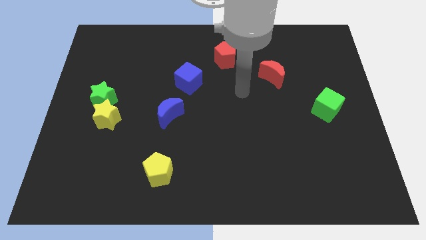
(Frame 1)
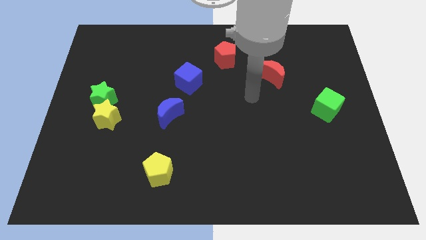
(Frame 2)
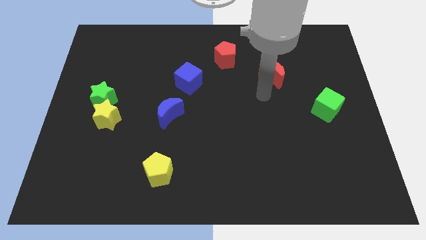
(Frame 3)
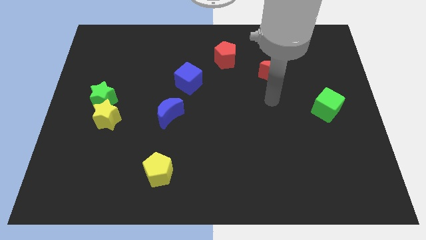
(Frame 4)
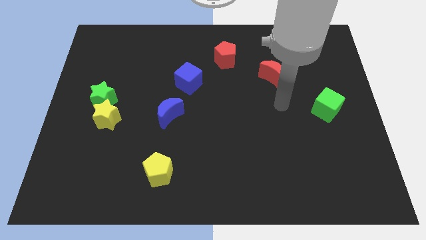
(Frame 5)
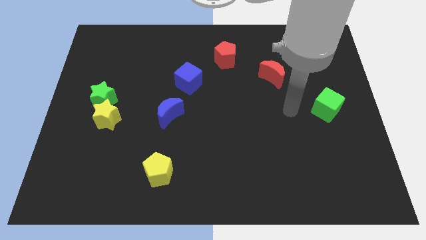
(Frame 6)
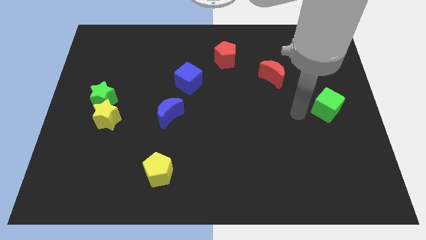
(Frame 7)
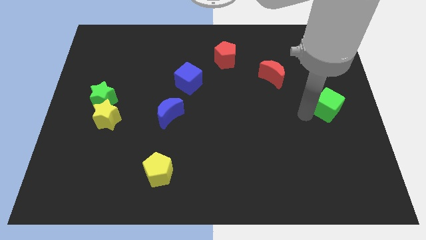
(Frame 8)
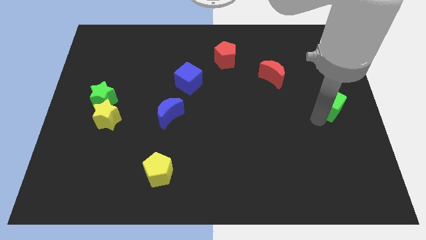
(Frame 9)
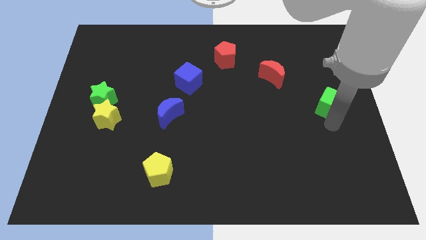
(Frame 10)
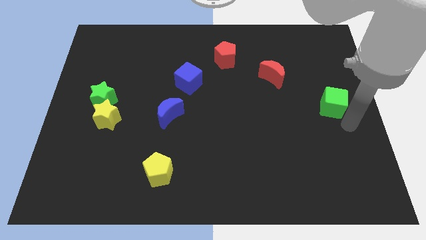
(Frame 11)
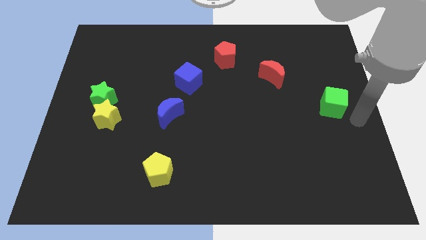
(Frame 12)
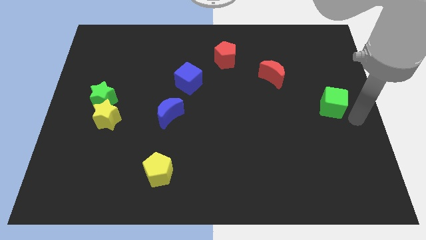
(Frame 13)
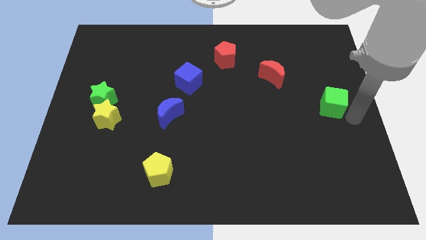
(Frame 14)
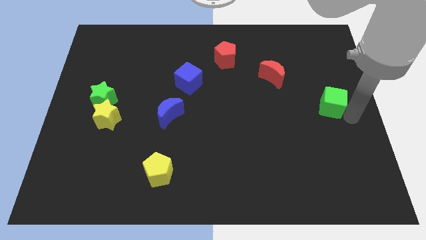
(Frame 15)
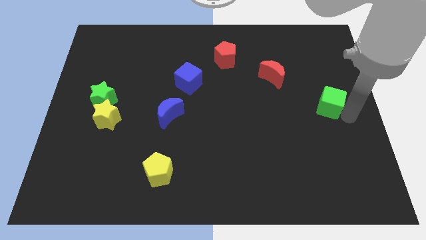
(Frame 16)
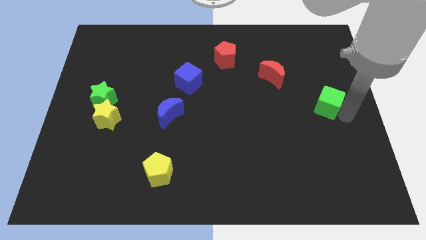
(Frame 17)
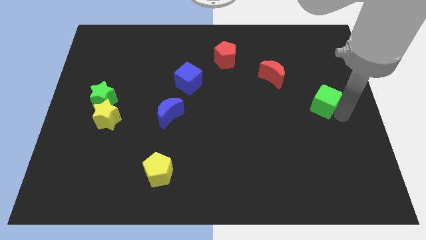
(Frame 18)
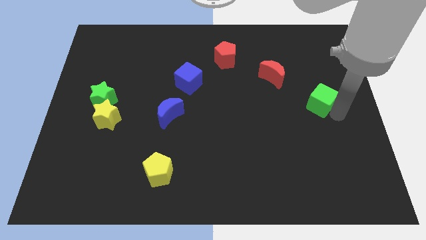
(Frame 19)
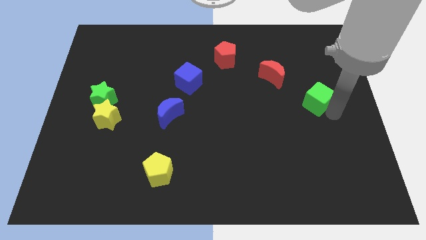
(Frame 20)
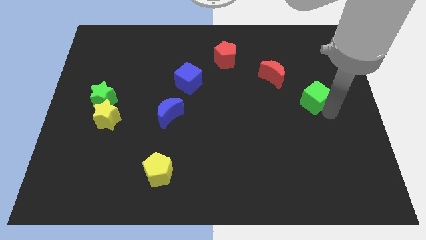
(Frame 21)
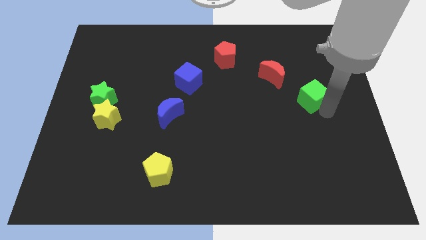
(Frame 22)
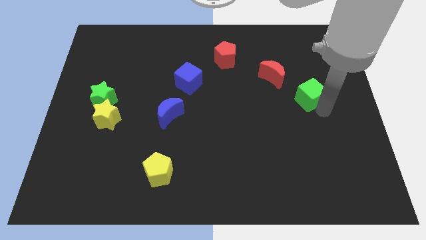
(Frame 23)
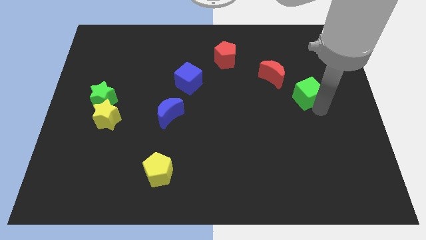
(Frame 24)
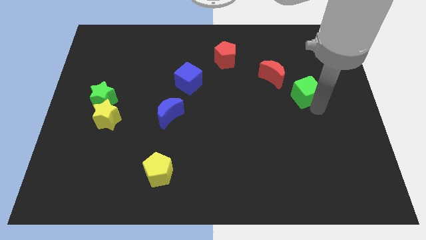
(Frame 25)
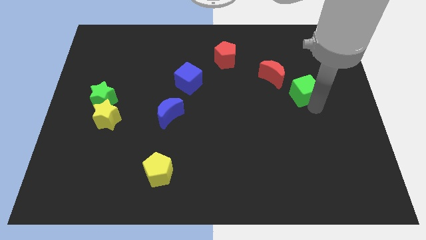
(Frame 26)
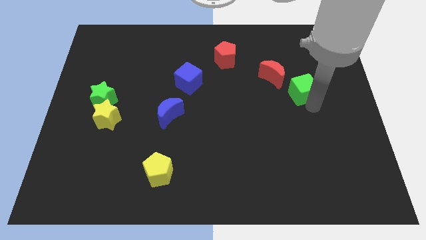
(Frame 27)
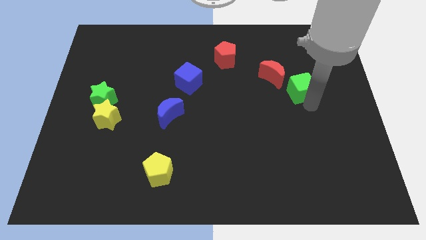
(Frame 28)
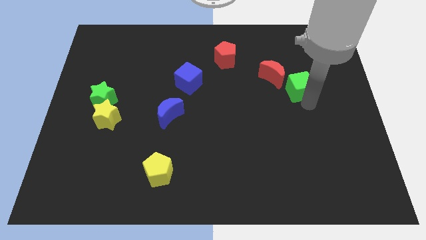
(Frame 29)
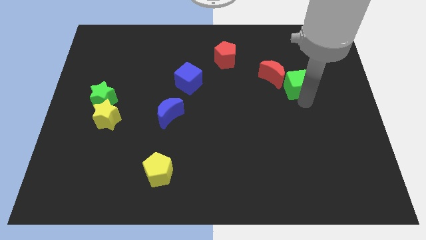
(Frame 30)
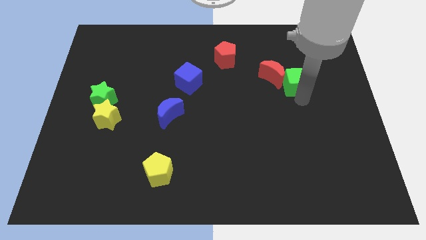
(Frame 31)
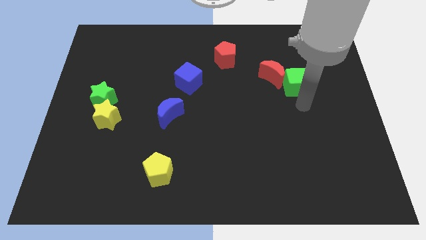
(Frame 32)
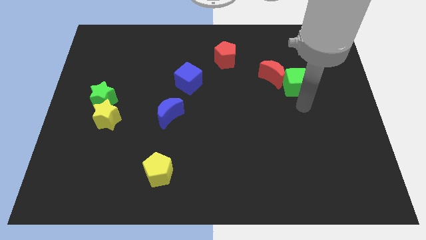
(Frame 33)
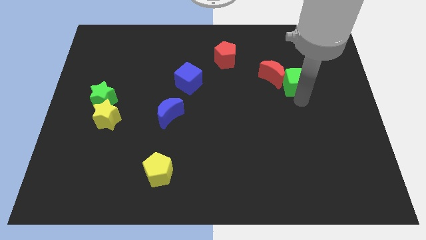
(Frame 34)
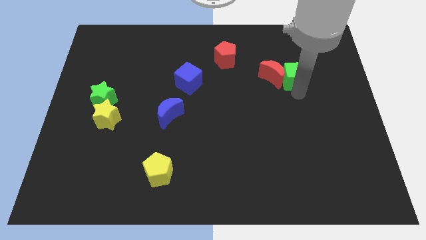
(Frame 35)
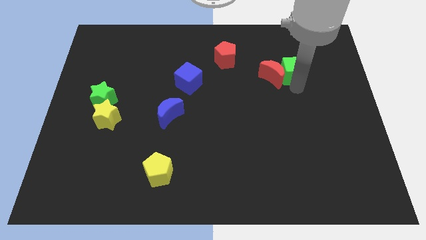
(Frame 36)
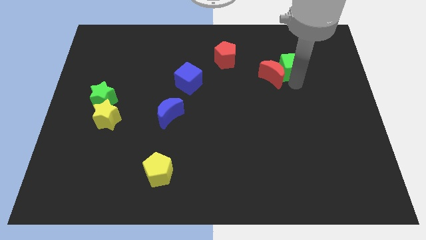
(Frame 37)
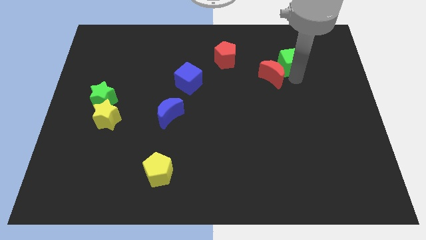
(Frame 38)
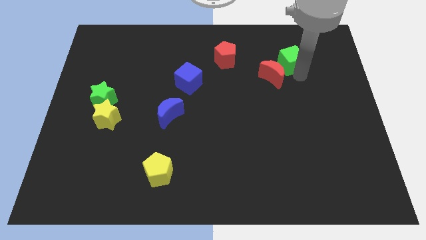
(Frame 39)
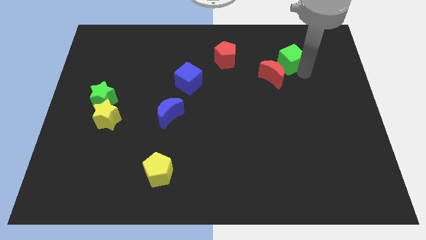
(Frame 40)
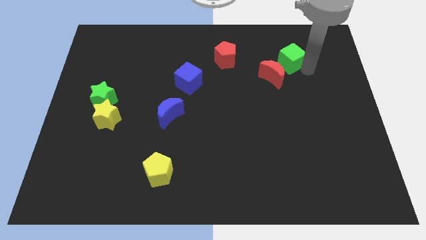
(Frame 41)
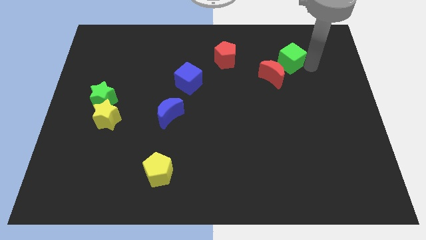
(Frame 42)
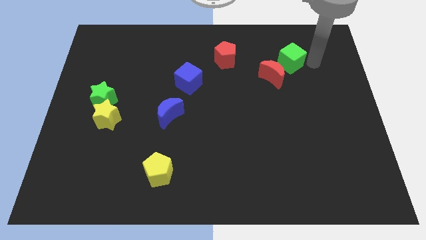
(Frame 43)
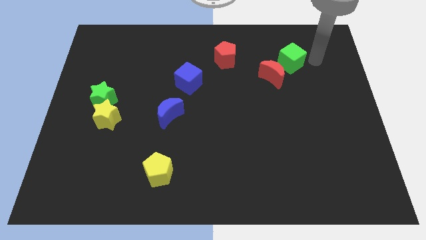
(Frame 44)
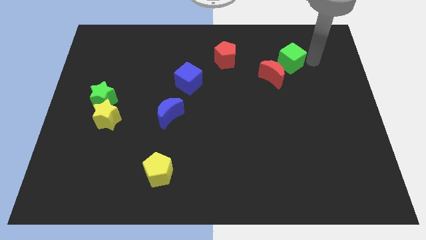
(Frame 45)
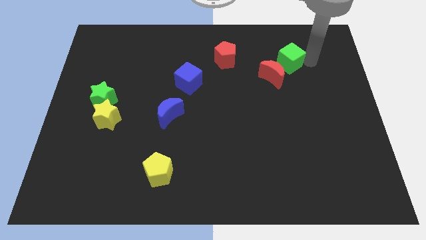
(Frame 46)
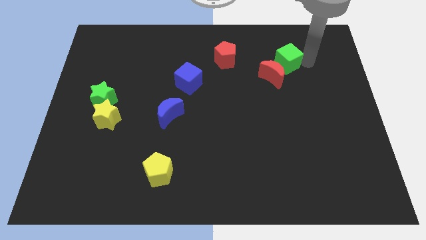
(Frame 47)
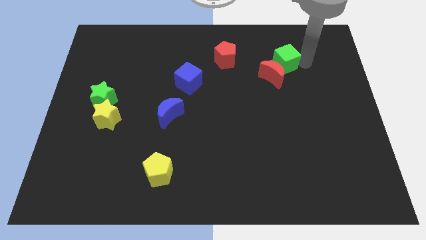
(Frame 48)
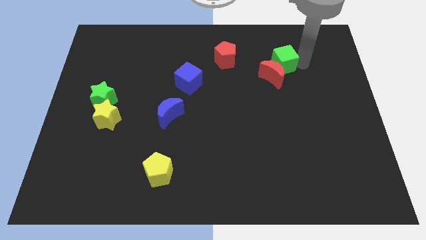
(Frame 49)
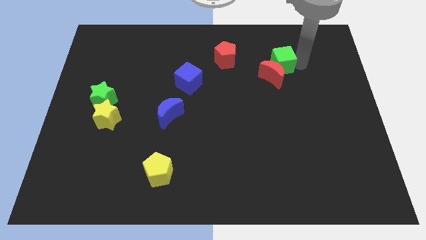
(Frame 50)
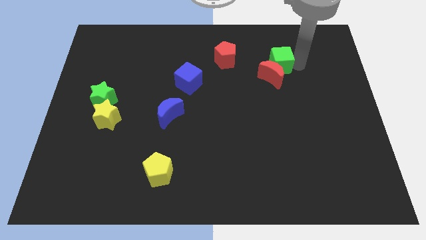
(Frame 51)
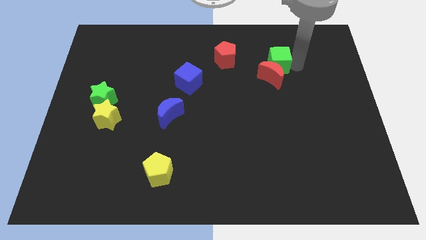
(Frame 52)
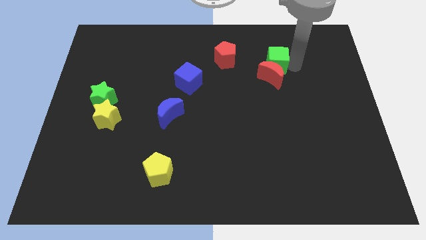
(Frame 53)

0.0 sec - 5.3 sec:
move the green cube diagonally up and to the left of the red moon

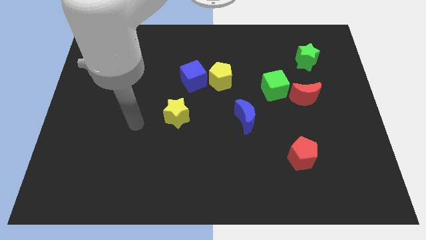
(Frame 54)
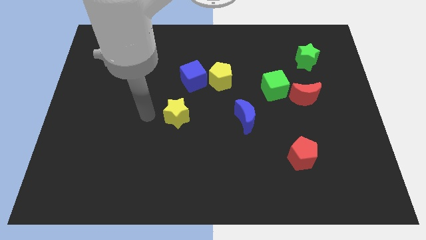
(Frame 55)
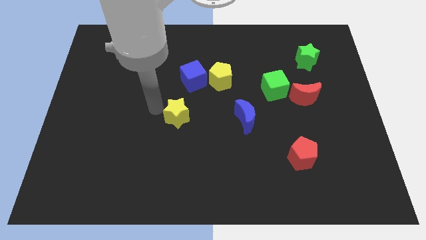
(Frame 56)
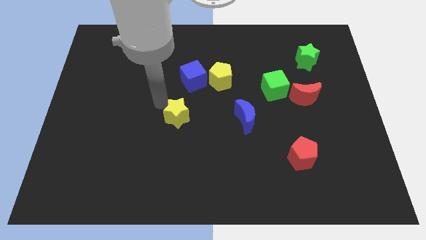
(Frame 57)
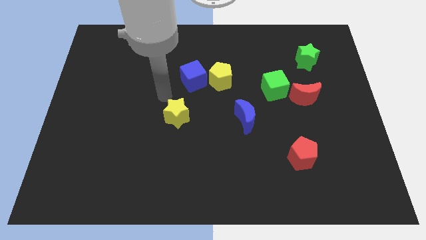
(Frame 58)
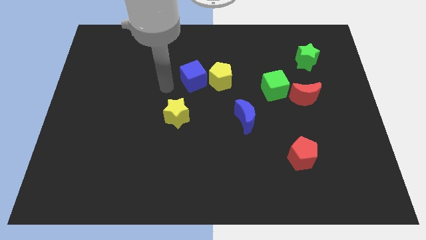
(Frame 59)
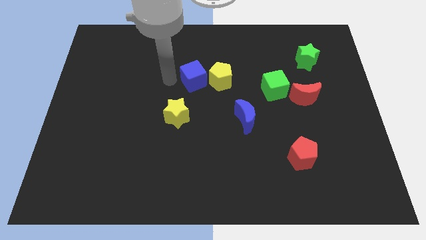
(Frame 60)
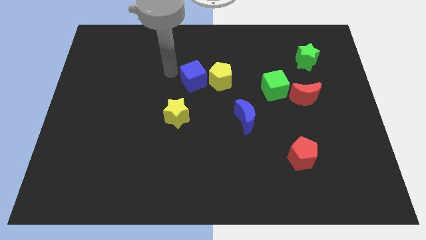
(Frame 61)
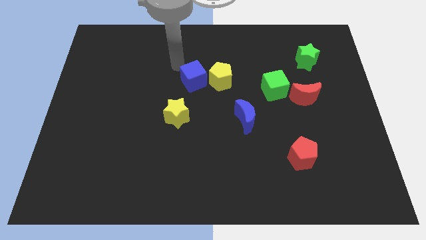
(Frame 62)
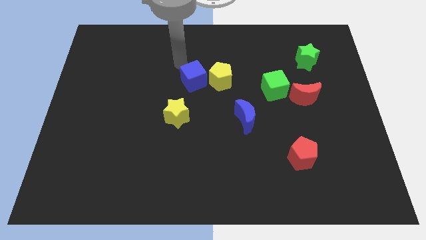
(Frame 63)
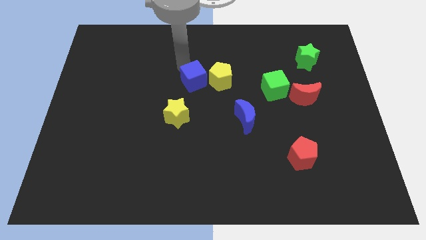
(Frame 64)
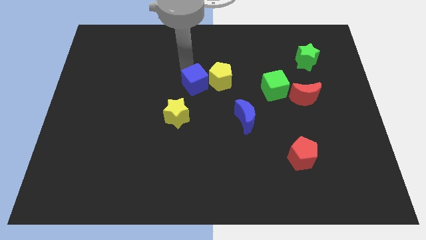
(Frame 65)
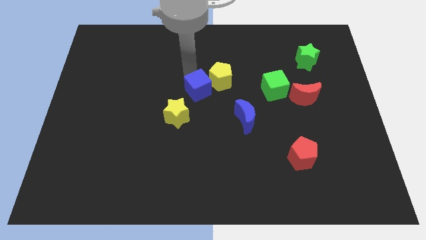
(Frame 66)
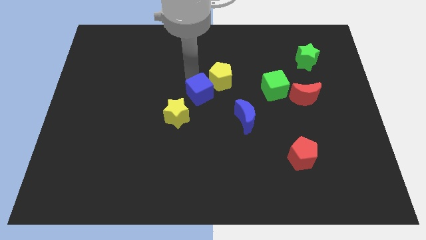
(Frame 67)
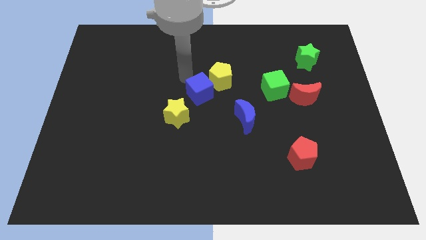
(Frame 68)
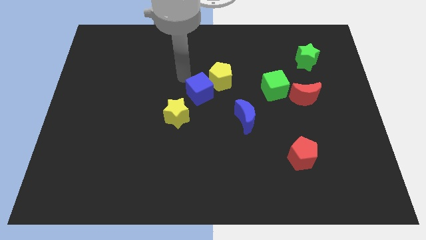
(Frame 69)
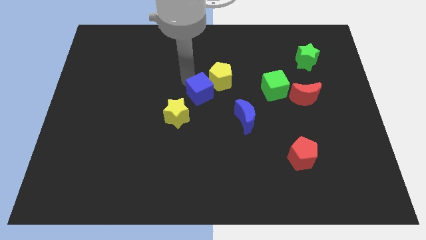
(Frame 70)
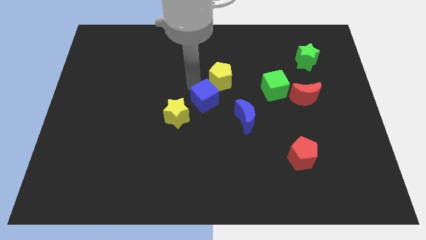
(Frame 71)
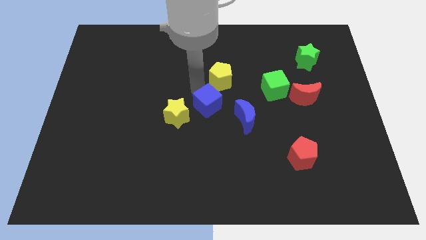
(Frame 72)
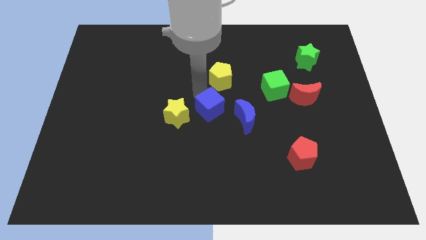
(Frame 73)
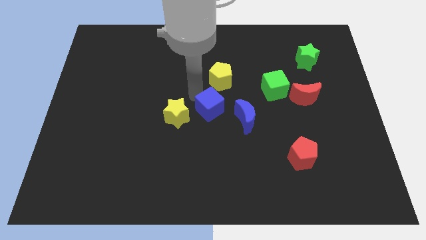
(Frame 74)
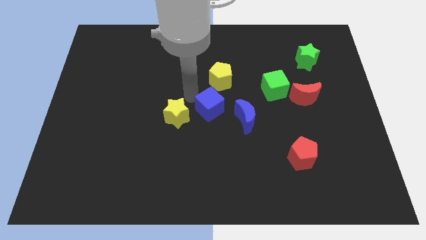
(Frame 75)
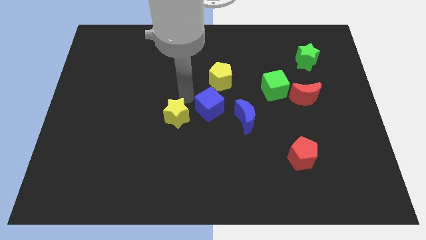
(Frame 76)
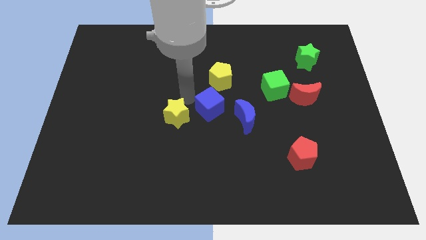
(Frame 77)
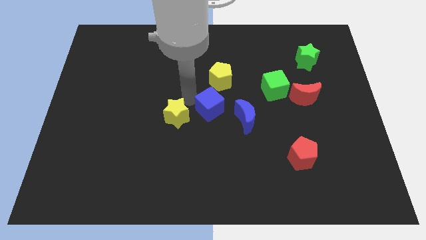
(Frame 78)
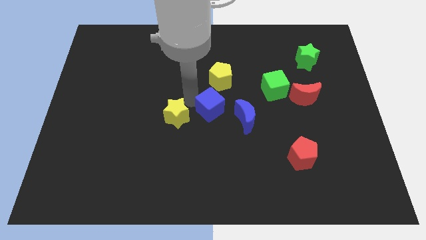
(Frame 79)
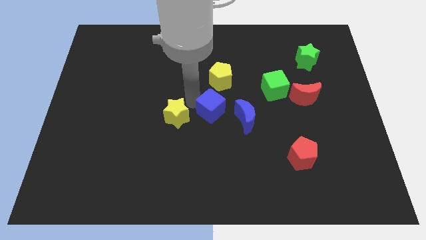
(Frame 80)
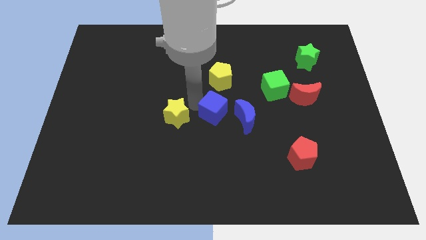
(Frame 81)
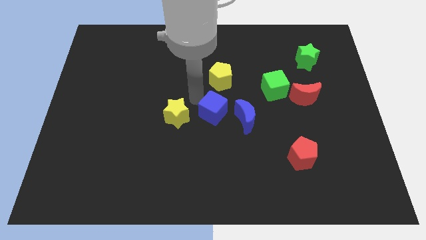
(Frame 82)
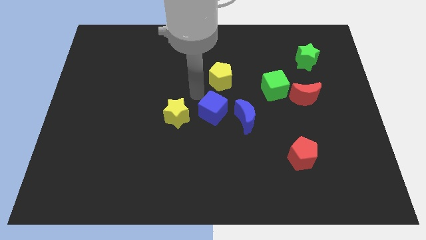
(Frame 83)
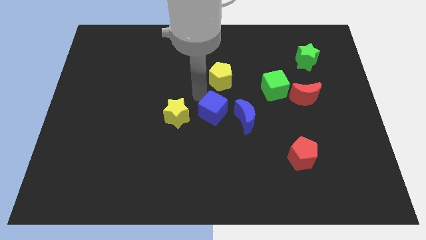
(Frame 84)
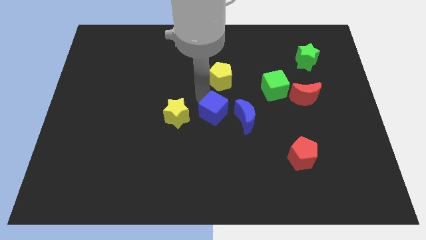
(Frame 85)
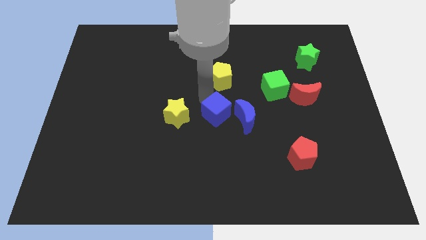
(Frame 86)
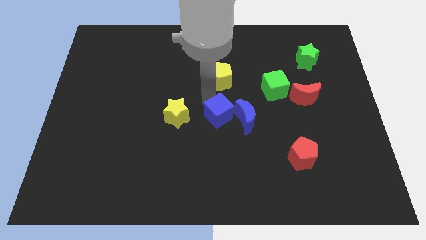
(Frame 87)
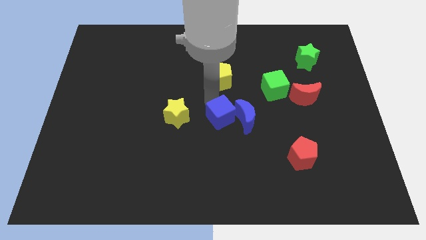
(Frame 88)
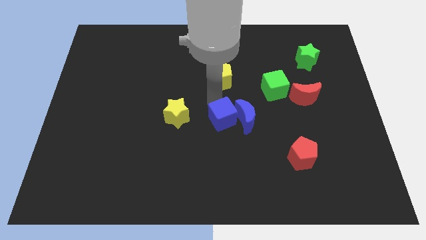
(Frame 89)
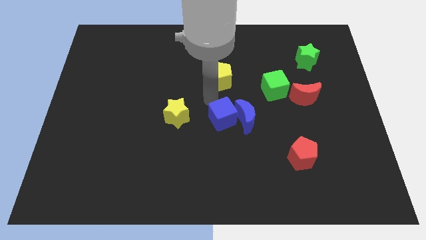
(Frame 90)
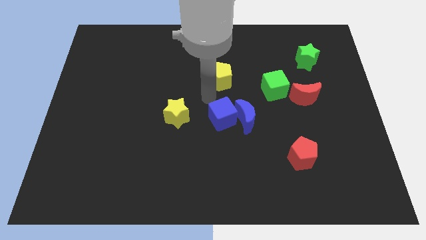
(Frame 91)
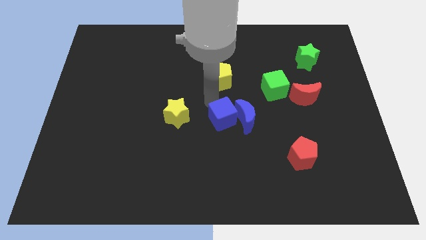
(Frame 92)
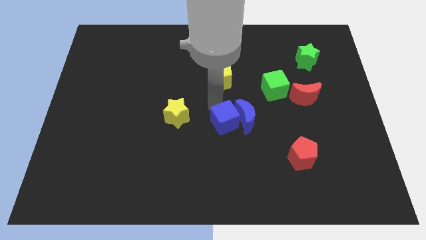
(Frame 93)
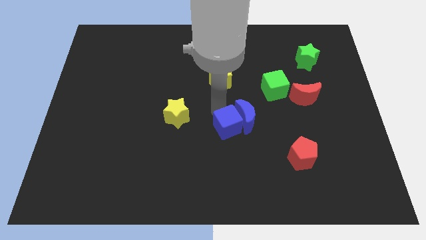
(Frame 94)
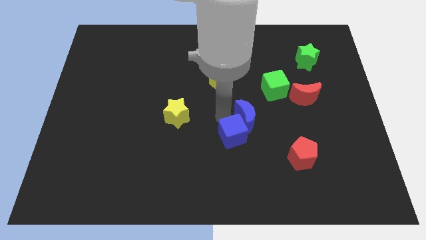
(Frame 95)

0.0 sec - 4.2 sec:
push the blue cube to the bottom side of the blue moon
